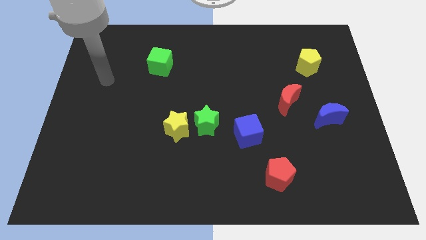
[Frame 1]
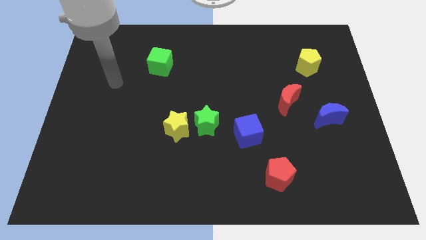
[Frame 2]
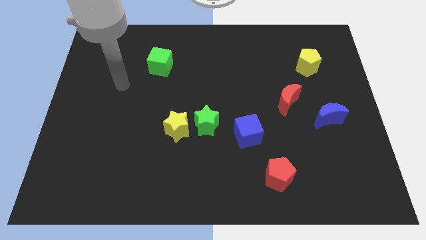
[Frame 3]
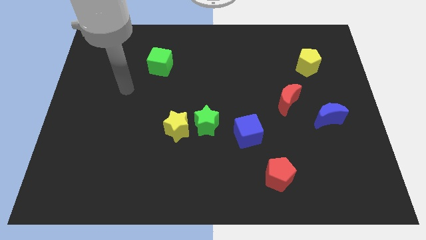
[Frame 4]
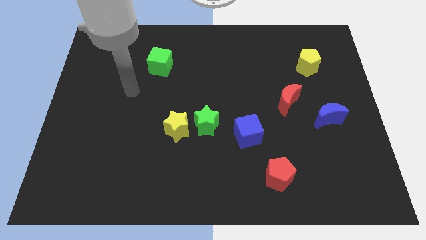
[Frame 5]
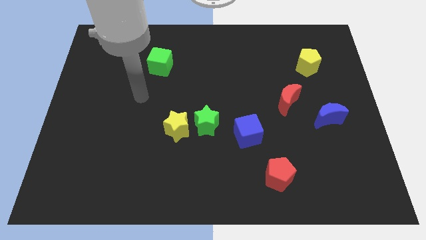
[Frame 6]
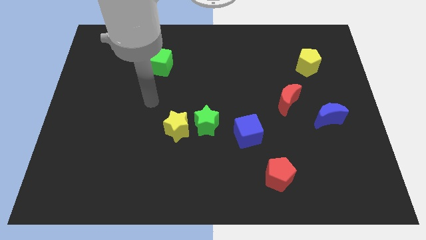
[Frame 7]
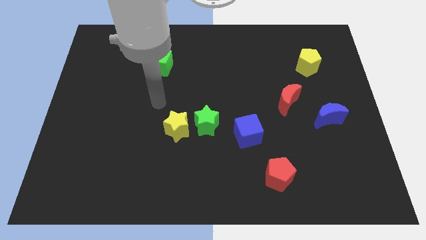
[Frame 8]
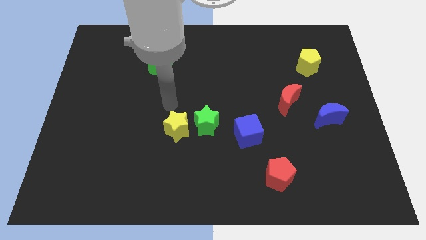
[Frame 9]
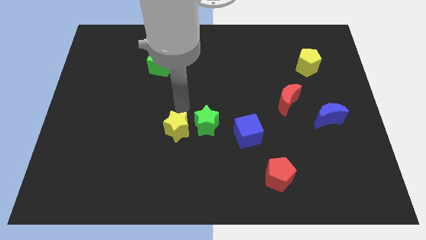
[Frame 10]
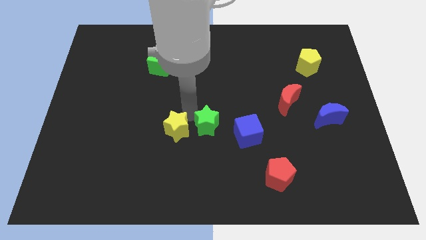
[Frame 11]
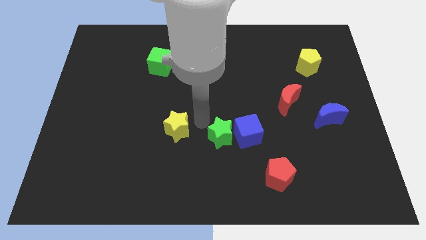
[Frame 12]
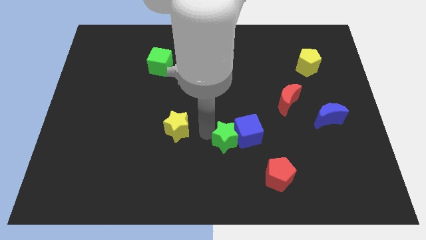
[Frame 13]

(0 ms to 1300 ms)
move the yellow star away from the green star

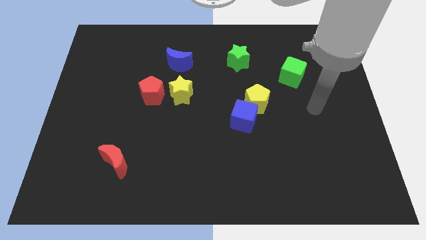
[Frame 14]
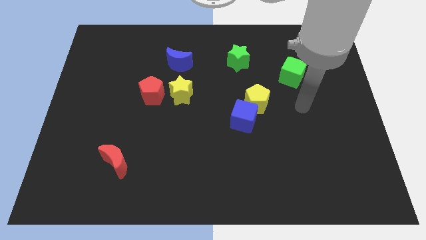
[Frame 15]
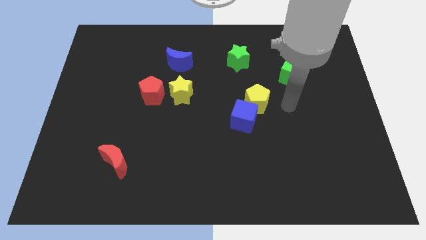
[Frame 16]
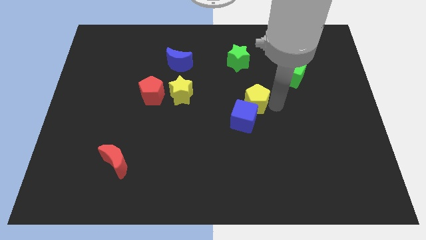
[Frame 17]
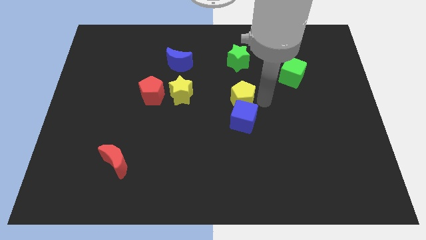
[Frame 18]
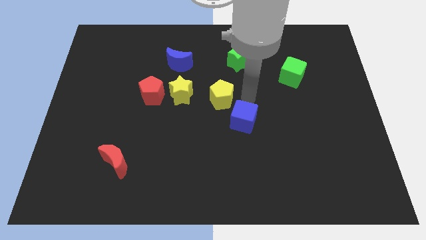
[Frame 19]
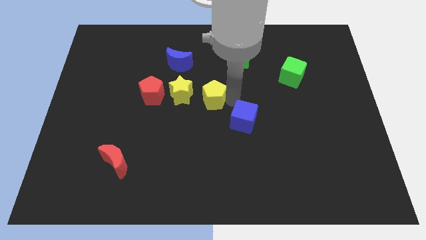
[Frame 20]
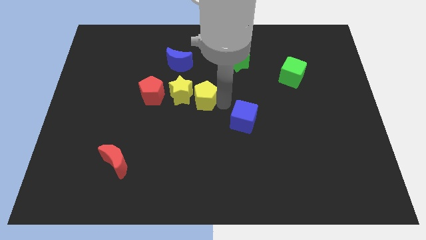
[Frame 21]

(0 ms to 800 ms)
move the blue cube away from the yellow pentagon

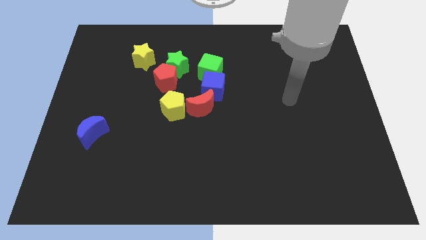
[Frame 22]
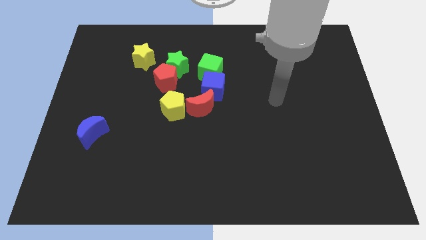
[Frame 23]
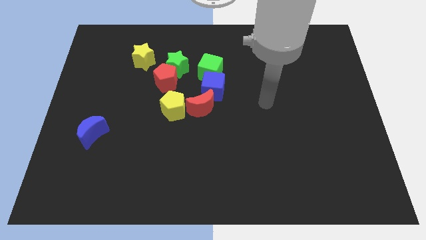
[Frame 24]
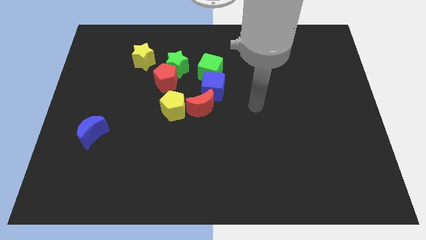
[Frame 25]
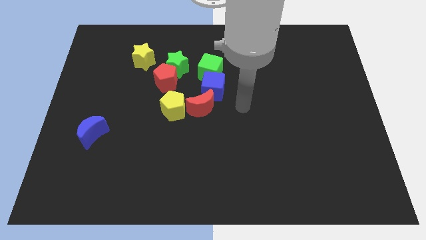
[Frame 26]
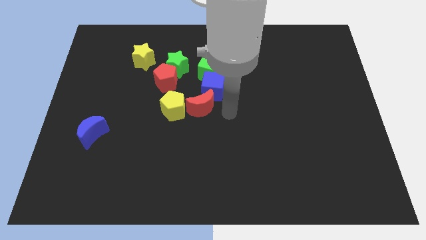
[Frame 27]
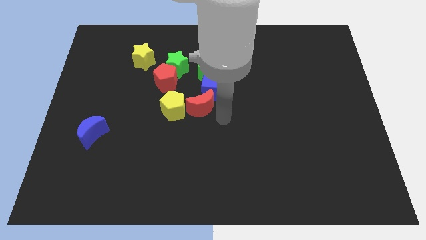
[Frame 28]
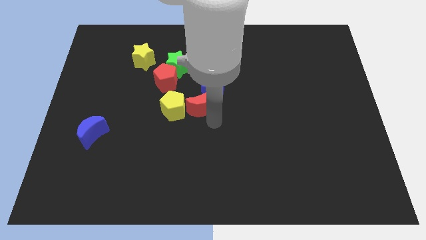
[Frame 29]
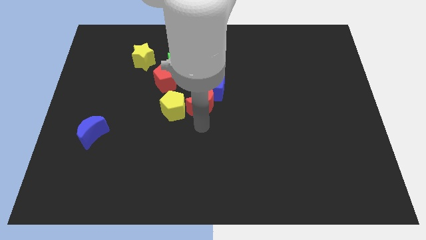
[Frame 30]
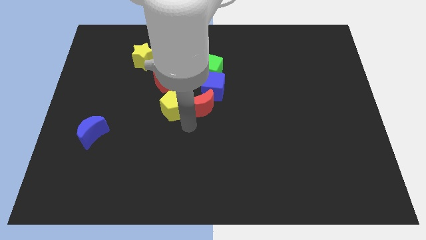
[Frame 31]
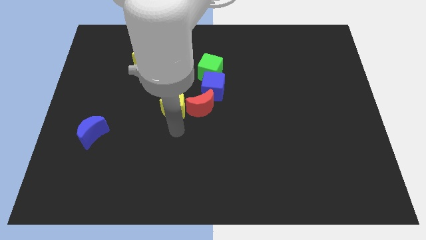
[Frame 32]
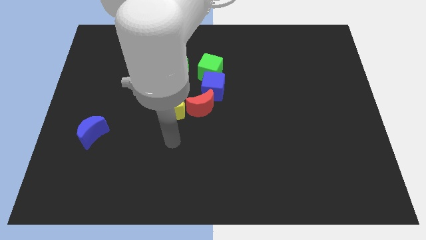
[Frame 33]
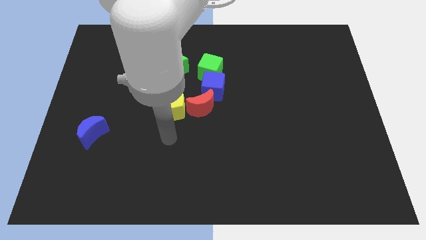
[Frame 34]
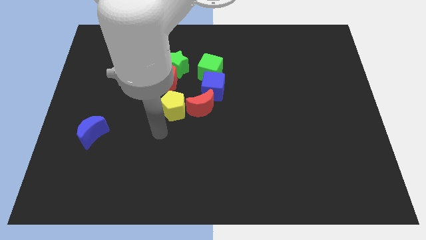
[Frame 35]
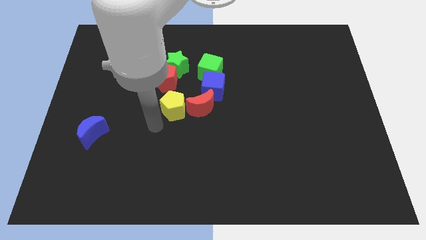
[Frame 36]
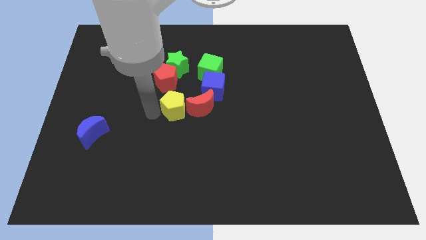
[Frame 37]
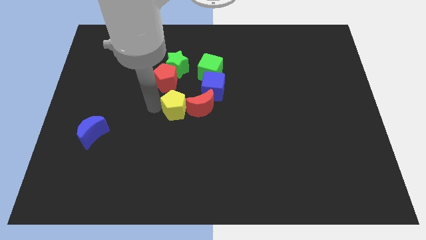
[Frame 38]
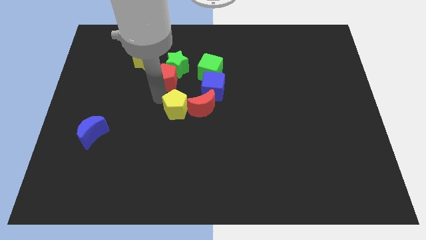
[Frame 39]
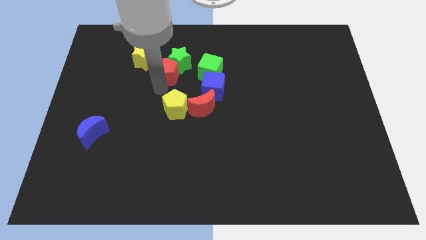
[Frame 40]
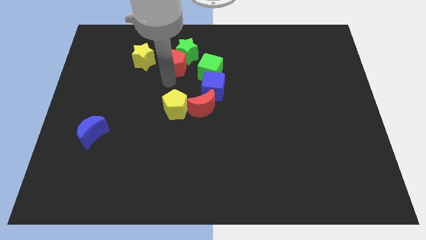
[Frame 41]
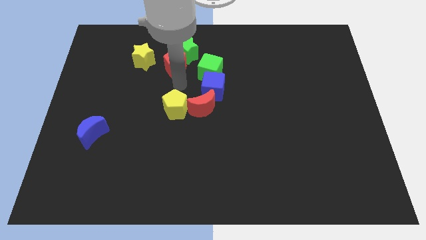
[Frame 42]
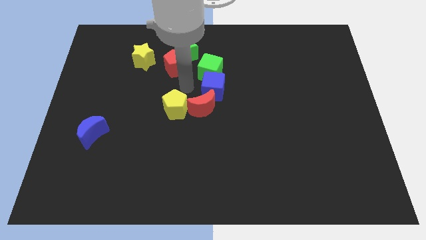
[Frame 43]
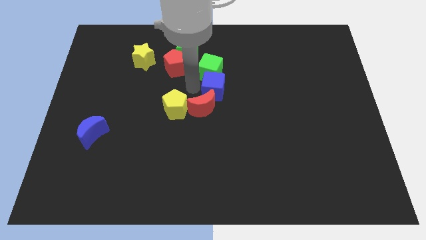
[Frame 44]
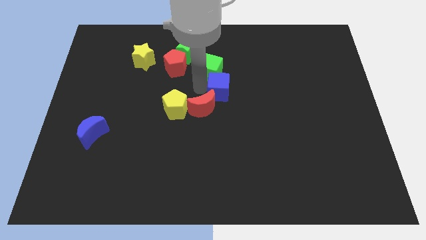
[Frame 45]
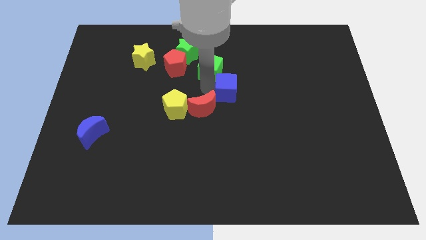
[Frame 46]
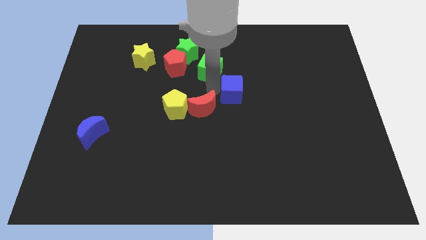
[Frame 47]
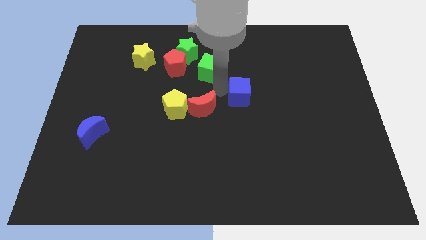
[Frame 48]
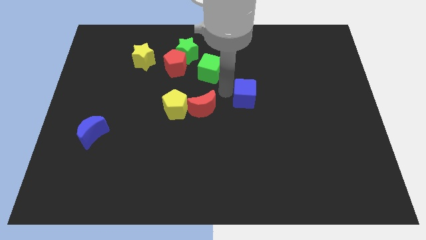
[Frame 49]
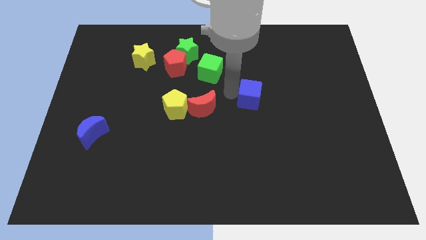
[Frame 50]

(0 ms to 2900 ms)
separate the blue cube from the green cube and red moon

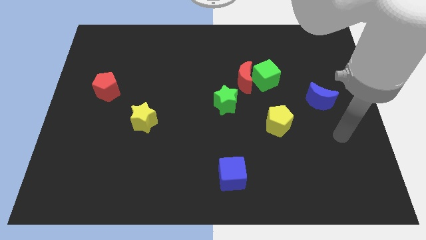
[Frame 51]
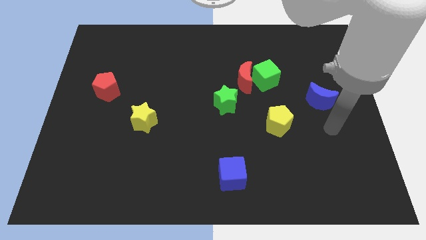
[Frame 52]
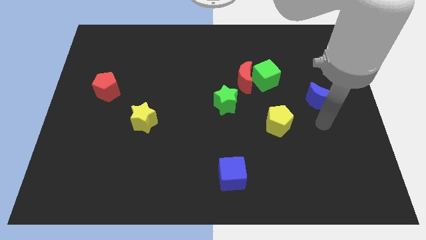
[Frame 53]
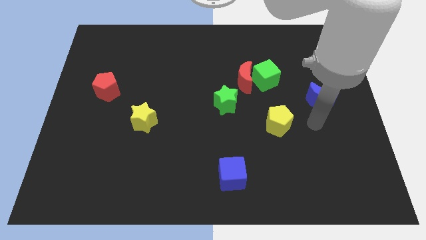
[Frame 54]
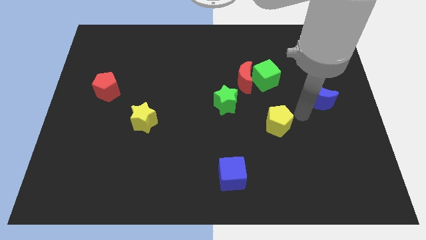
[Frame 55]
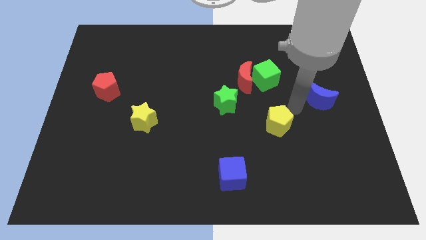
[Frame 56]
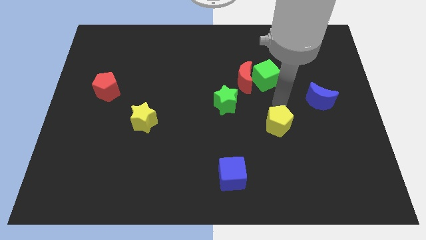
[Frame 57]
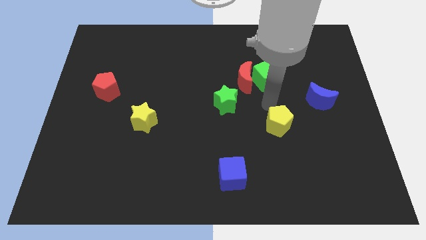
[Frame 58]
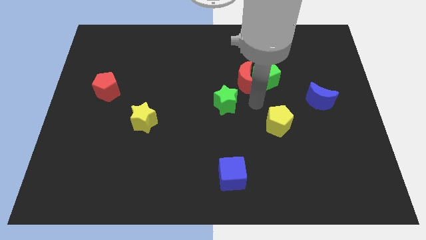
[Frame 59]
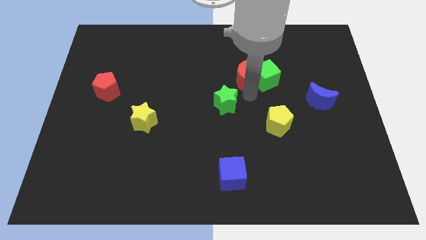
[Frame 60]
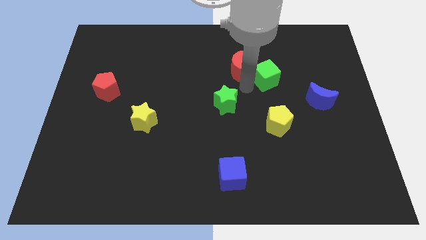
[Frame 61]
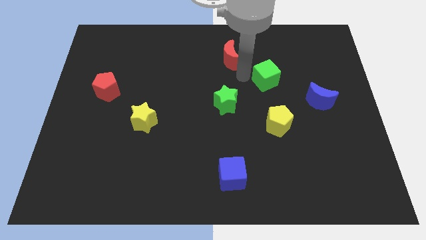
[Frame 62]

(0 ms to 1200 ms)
pull the green cube apart from the red moon

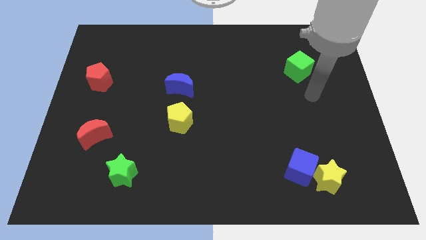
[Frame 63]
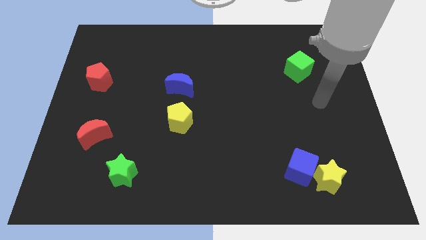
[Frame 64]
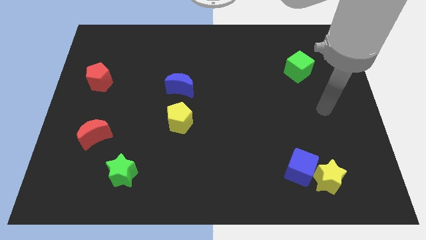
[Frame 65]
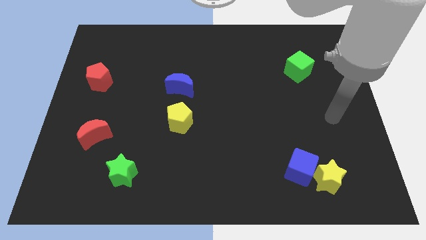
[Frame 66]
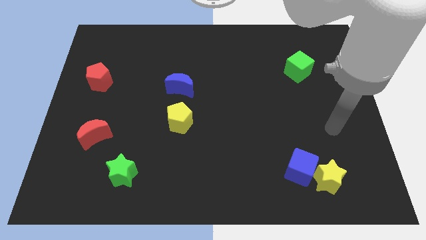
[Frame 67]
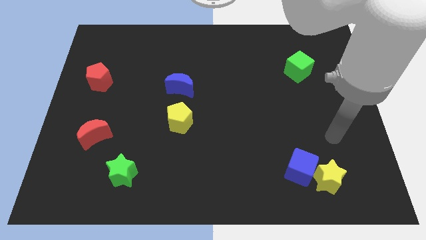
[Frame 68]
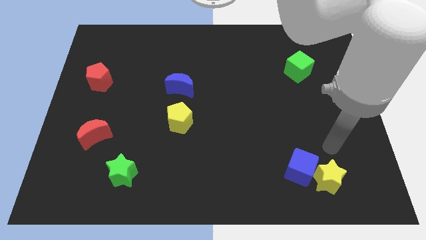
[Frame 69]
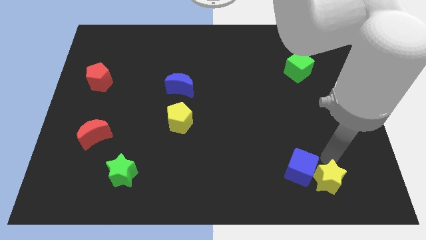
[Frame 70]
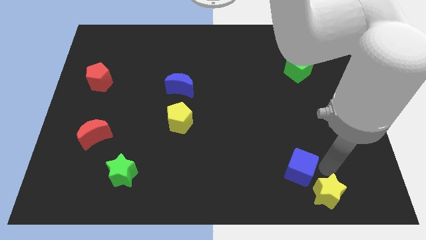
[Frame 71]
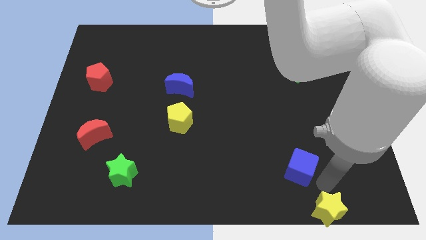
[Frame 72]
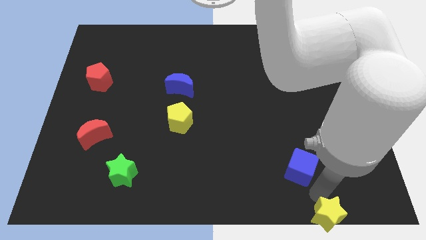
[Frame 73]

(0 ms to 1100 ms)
pull the blue cube apart from the yellow star

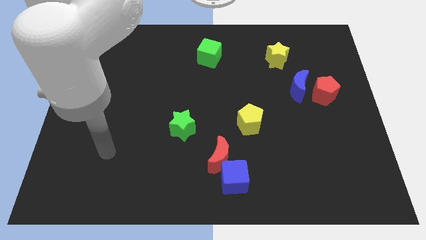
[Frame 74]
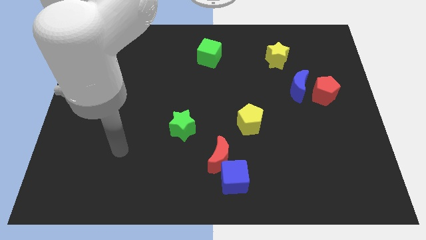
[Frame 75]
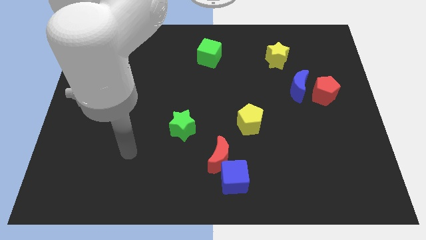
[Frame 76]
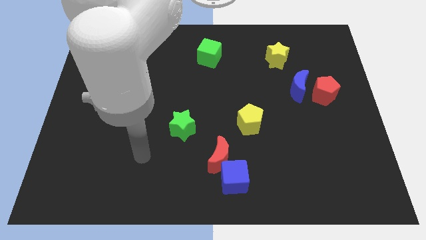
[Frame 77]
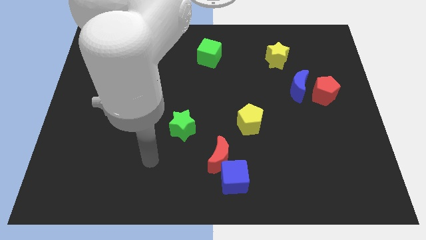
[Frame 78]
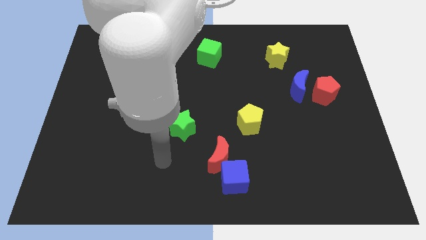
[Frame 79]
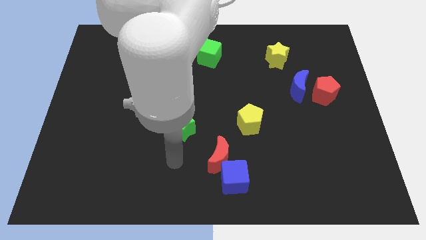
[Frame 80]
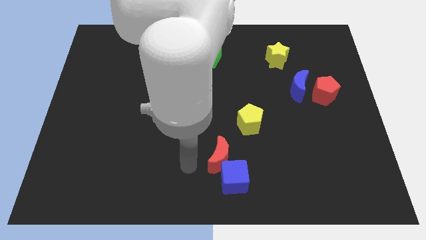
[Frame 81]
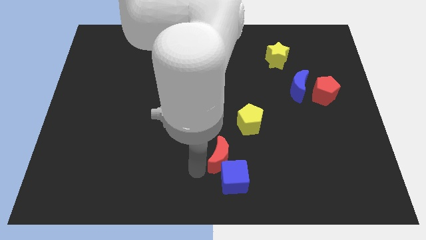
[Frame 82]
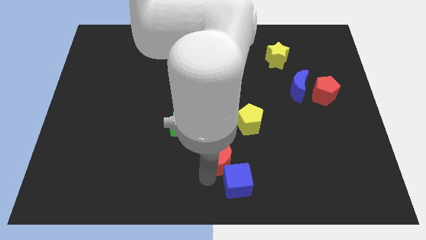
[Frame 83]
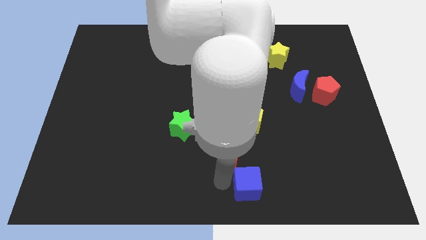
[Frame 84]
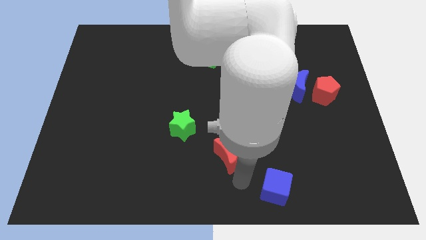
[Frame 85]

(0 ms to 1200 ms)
separate the red moon from the blue cube

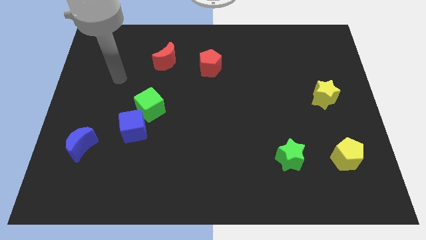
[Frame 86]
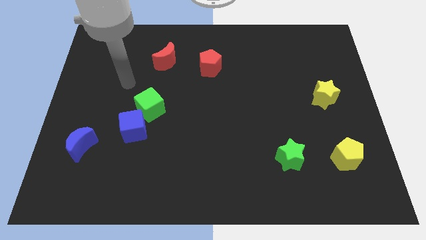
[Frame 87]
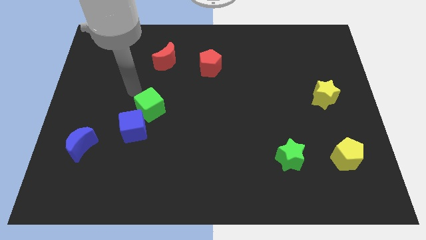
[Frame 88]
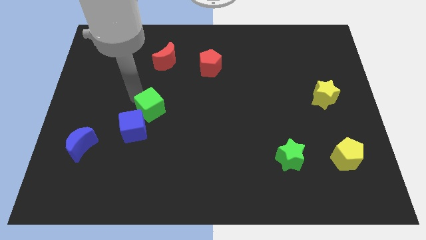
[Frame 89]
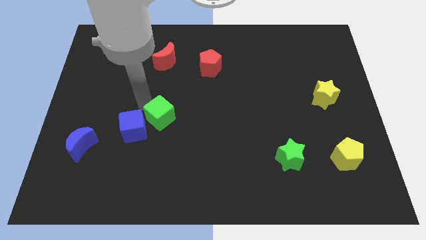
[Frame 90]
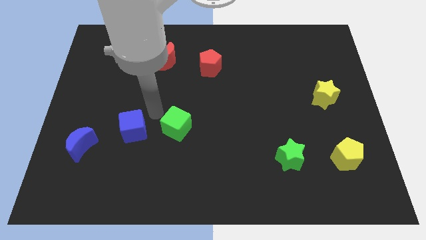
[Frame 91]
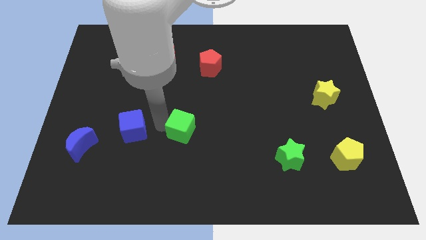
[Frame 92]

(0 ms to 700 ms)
separate the blue cube from the green cube

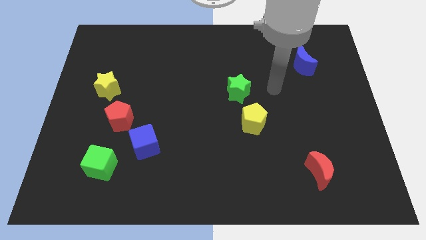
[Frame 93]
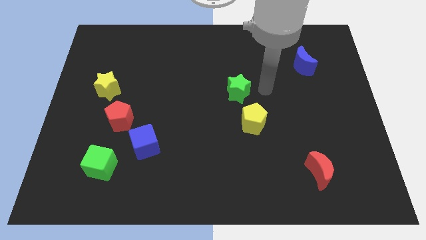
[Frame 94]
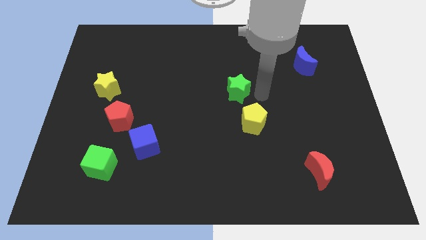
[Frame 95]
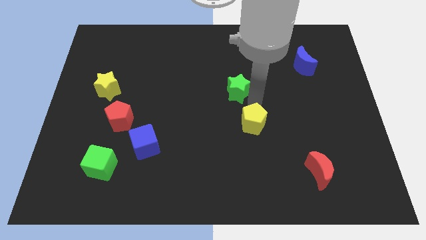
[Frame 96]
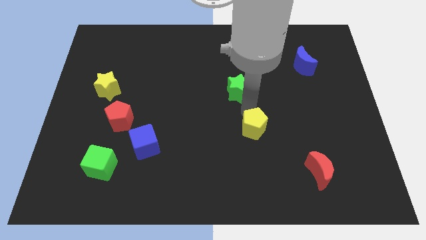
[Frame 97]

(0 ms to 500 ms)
separate the green star from the yellow pentagon
